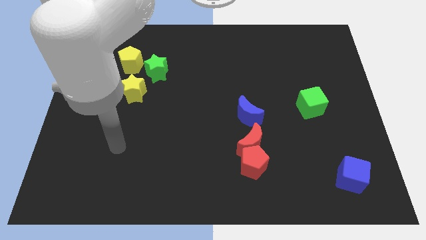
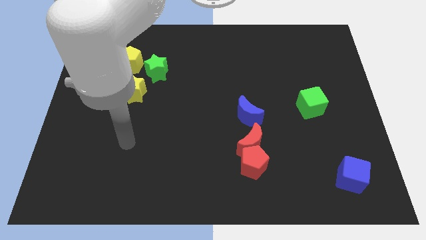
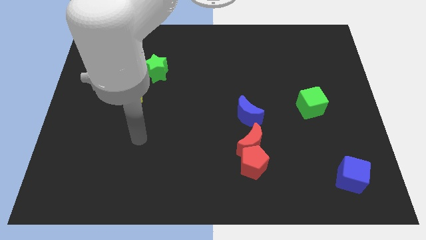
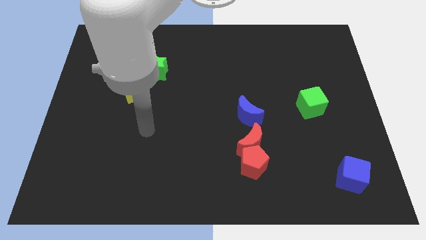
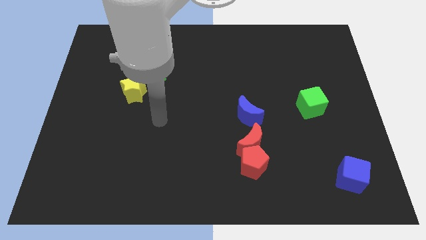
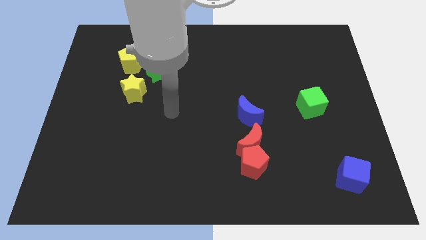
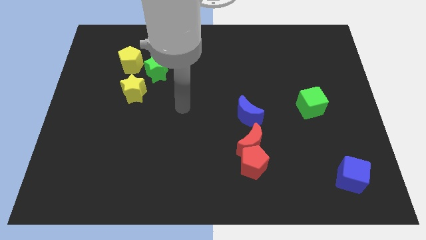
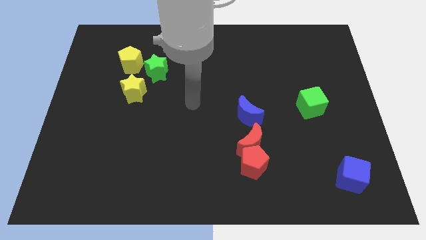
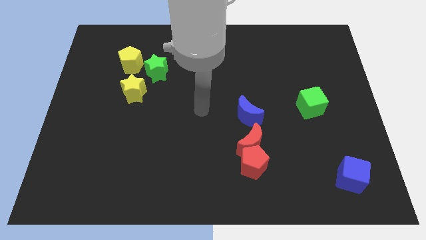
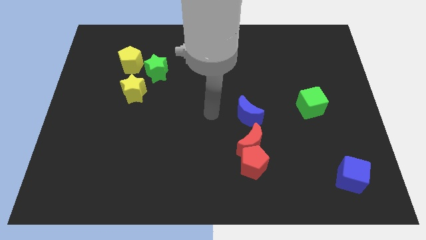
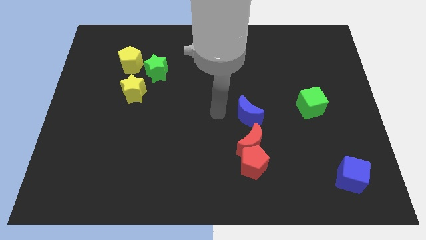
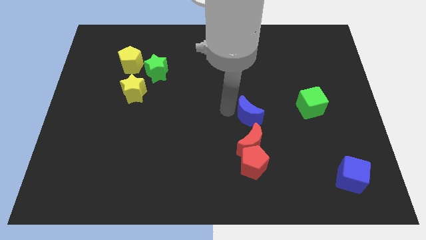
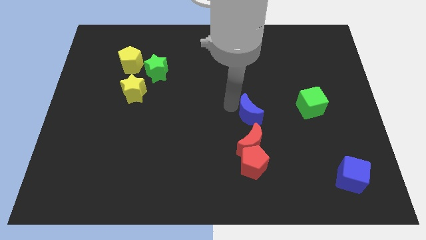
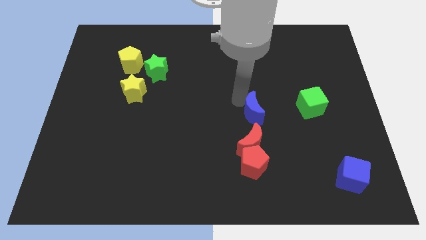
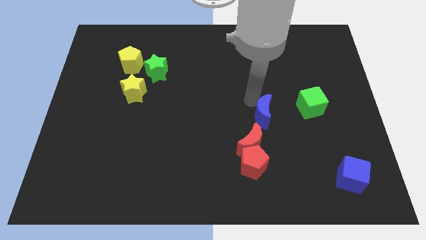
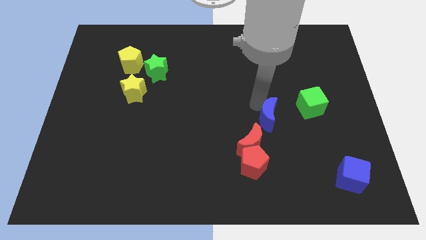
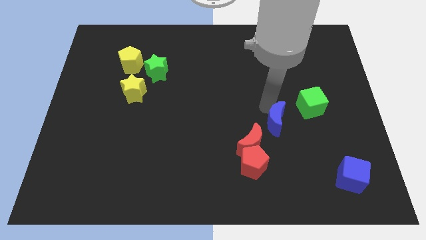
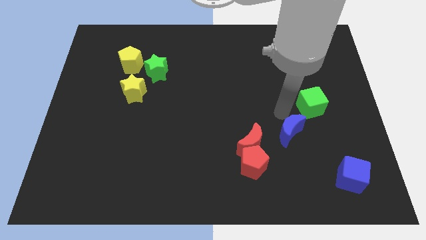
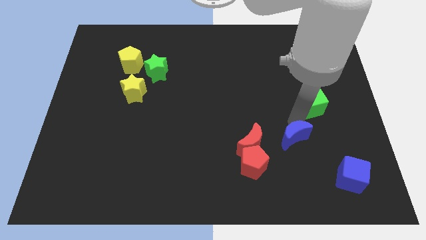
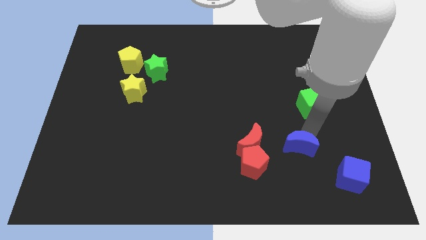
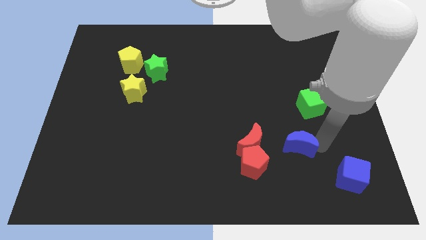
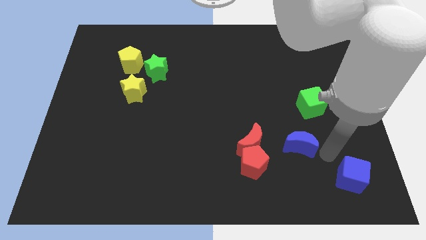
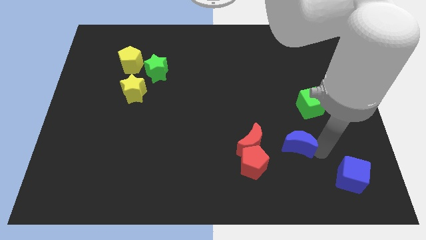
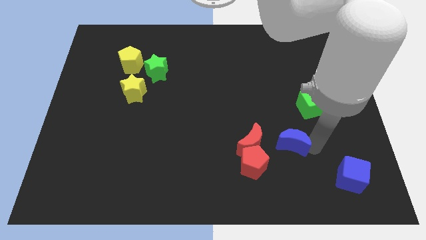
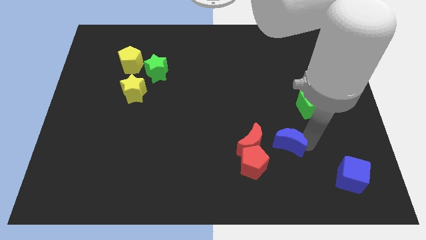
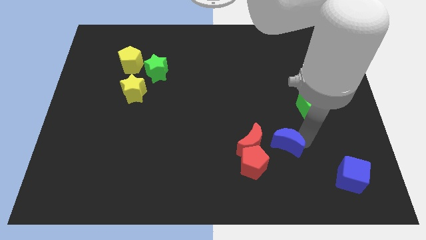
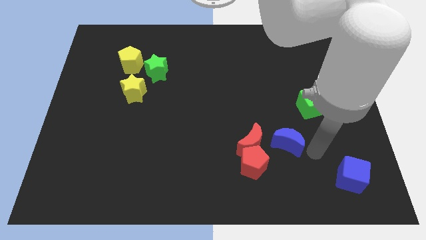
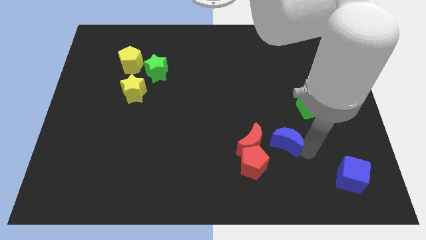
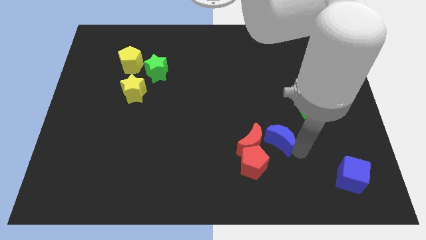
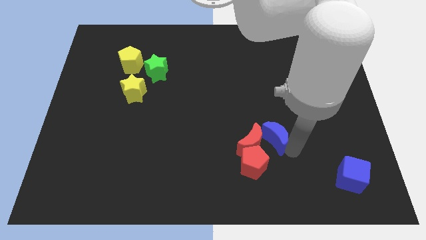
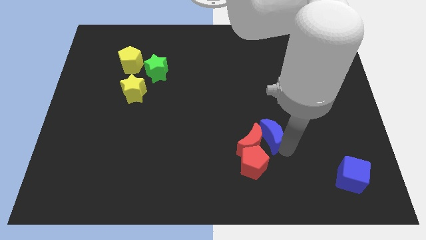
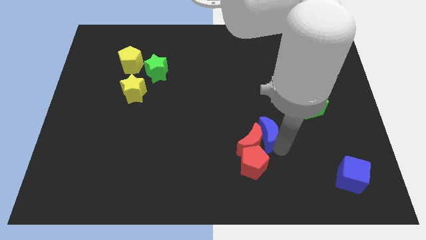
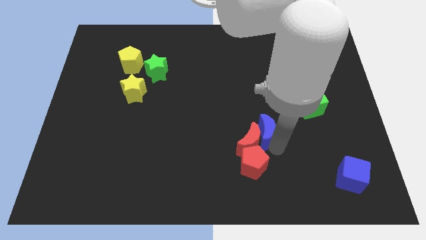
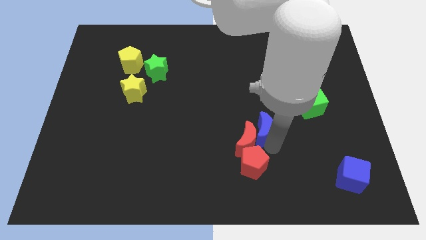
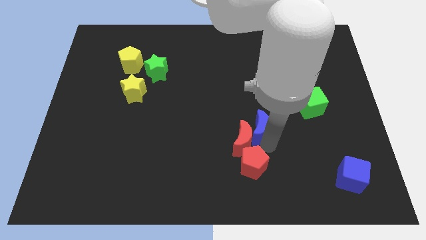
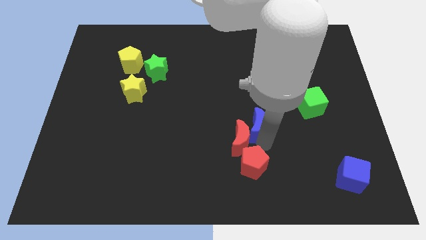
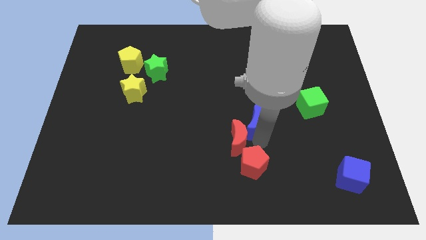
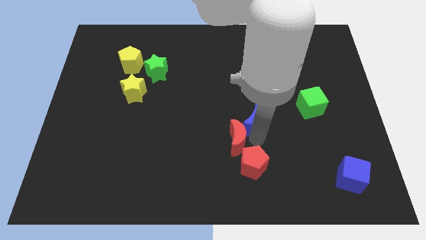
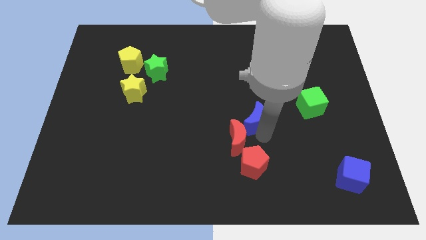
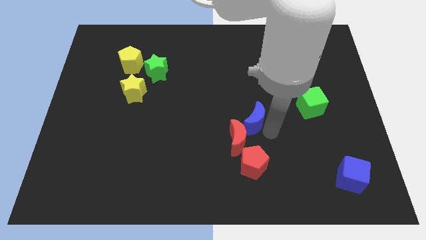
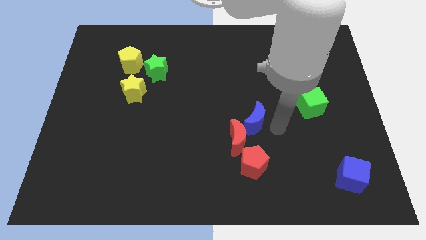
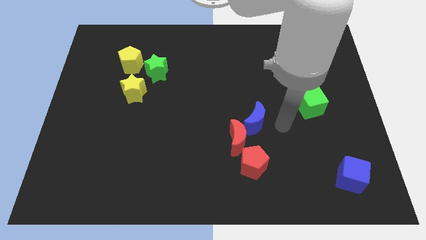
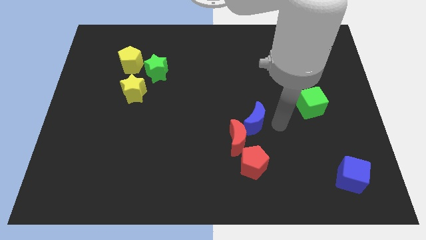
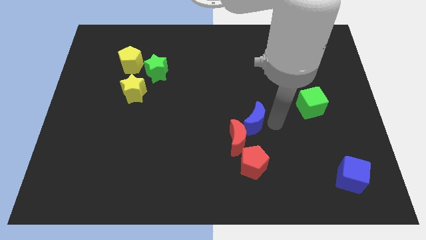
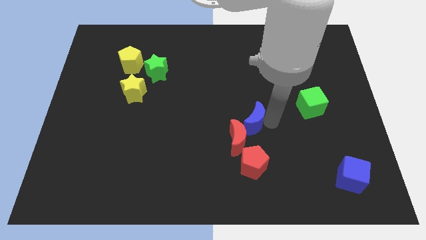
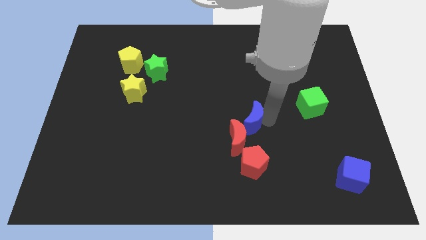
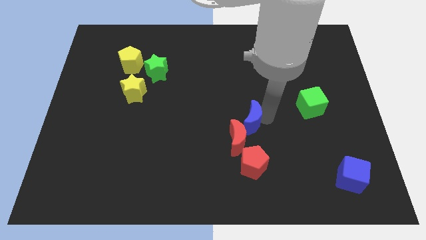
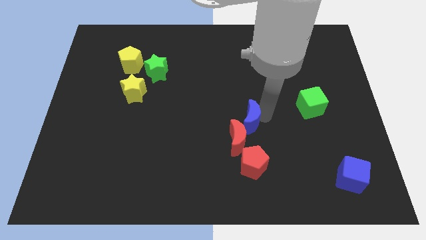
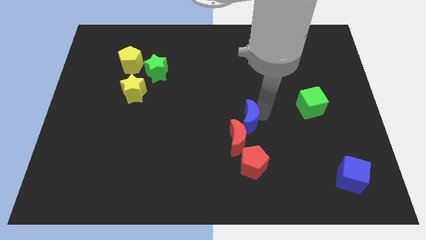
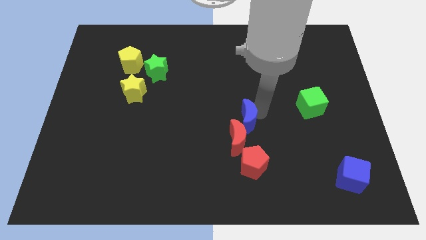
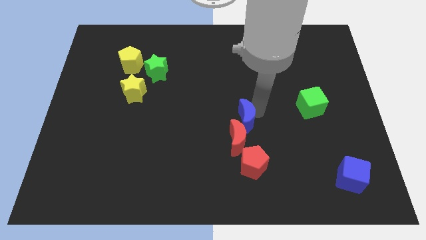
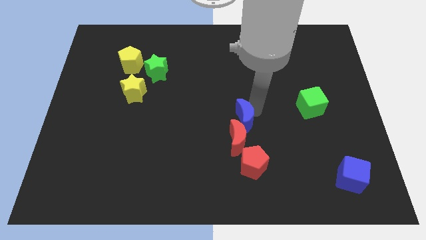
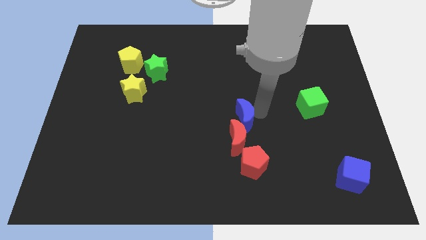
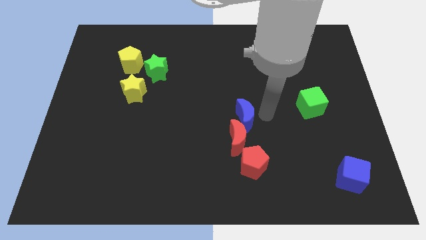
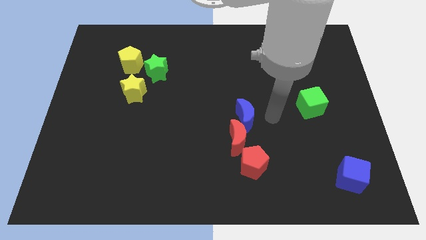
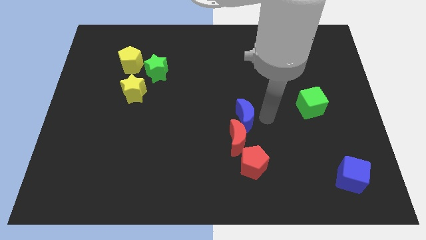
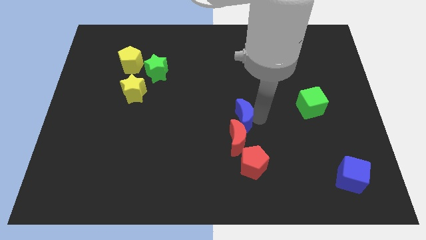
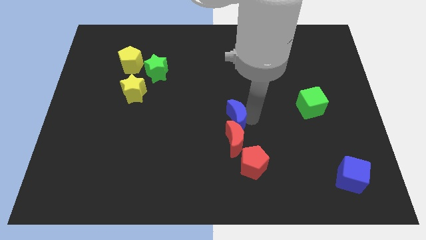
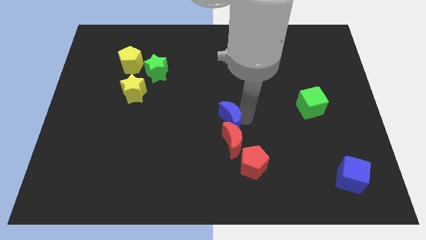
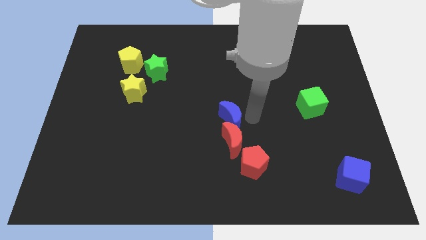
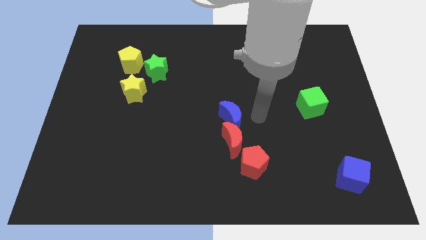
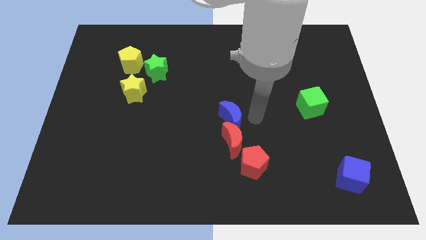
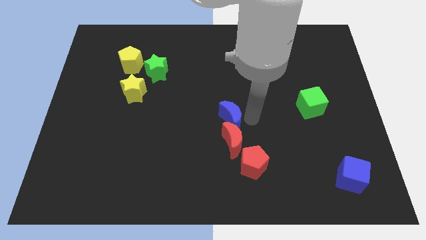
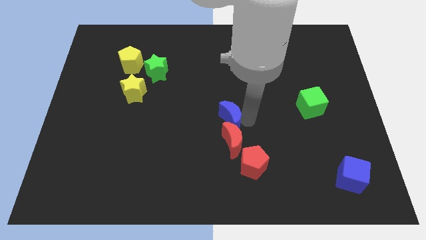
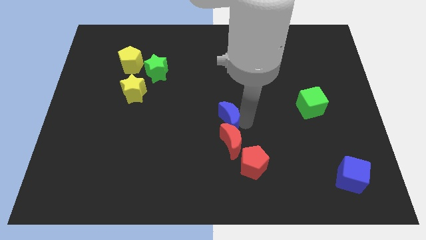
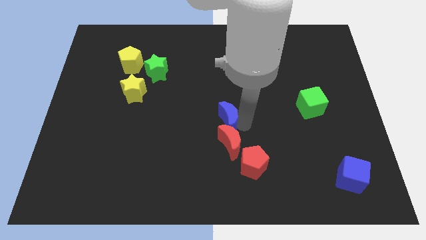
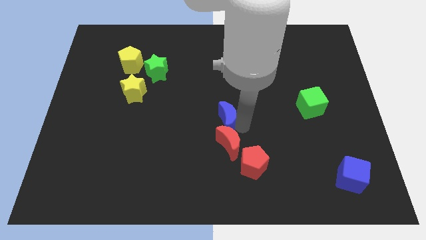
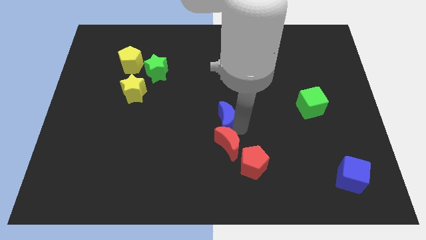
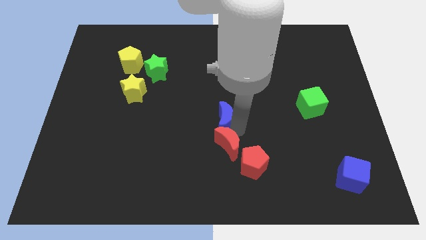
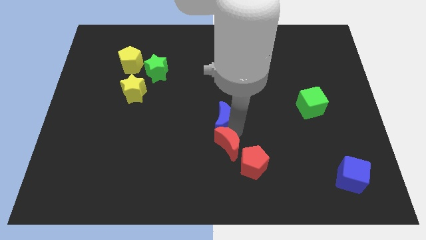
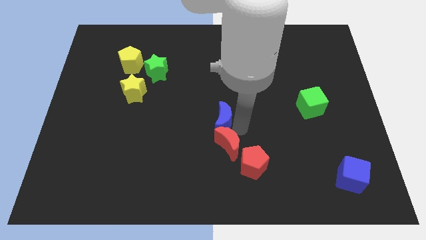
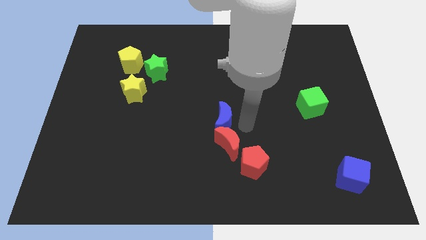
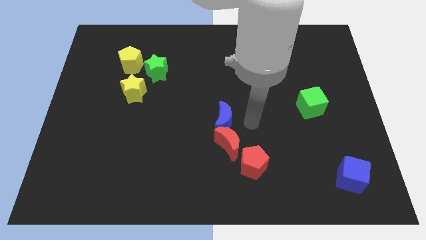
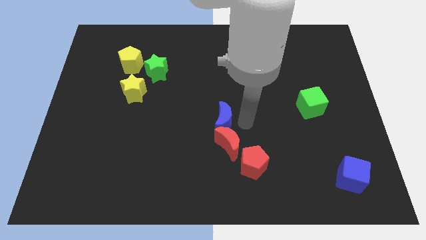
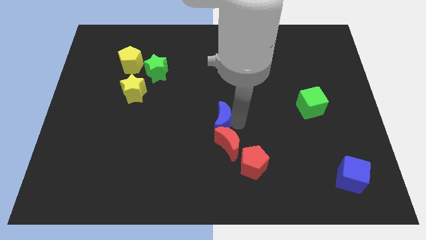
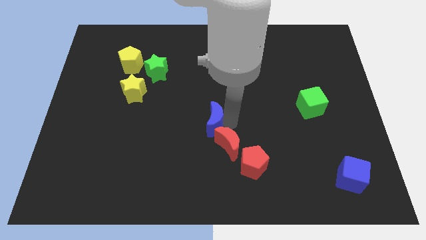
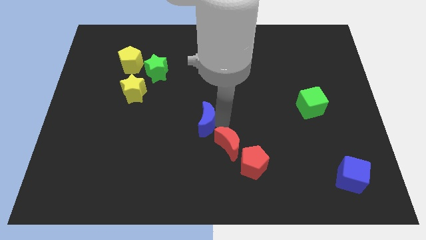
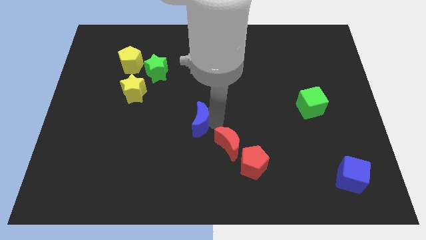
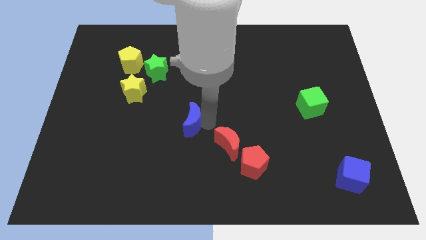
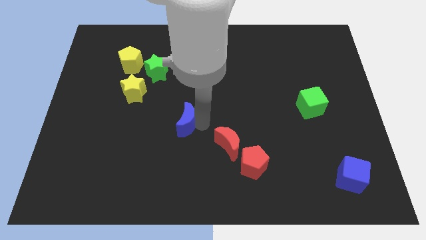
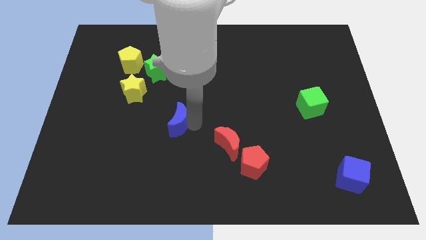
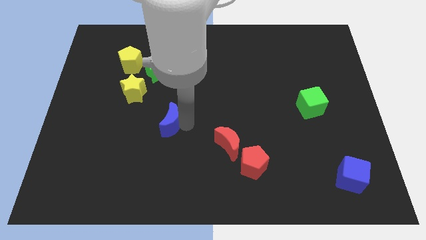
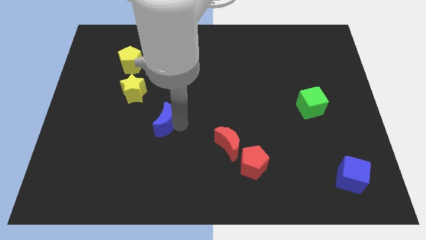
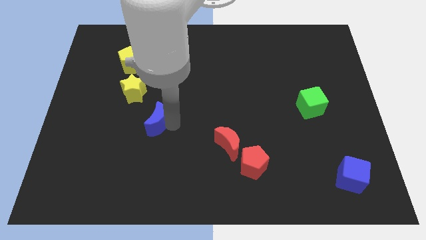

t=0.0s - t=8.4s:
move the blue moon to the left
